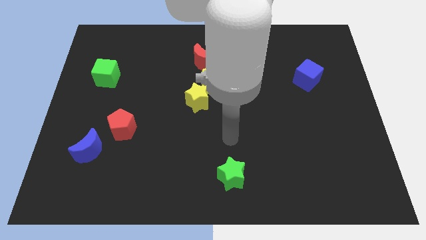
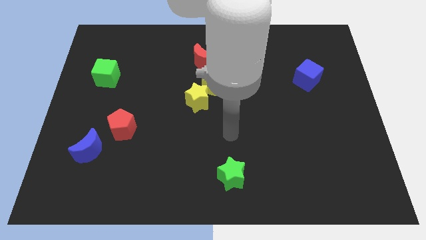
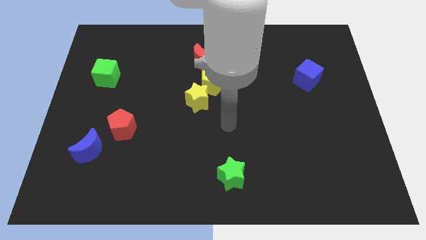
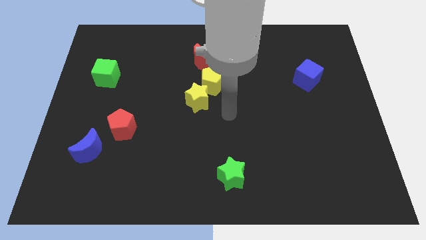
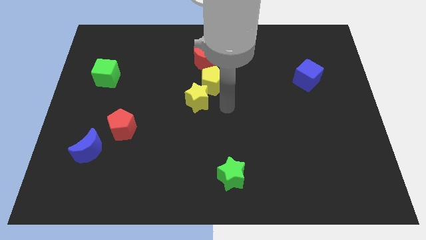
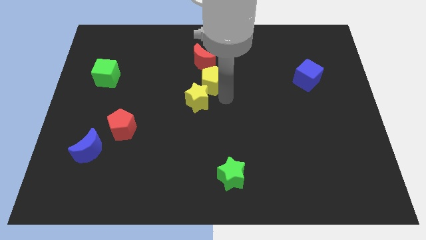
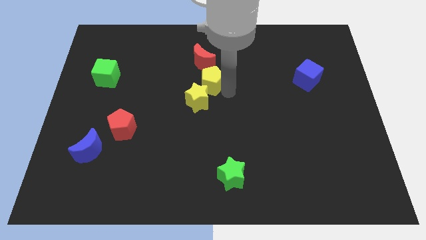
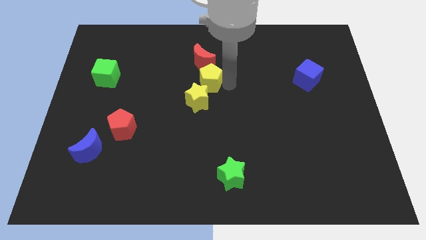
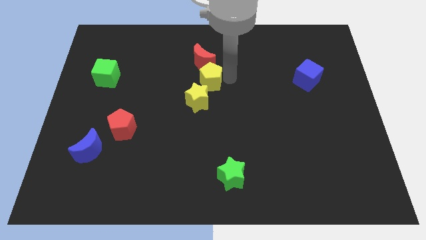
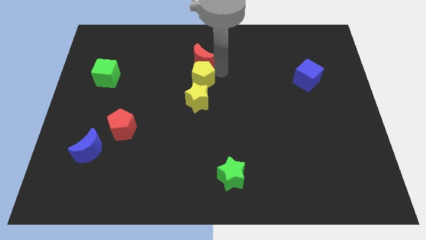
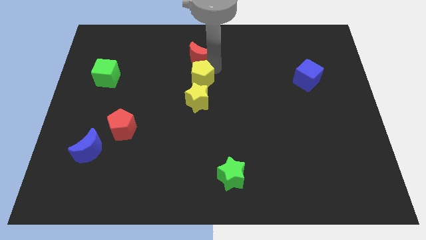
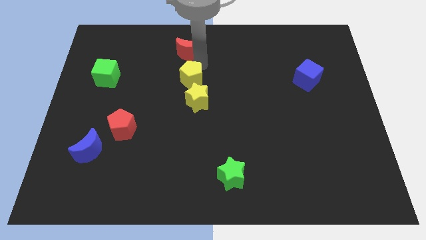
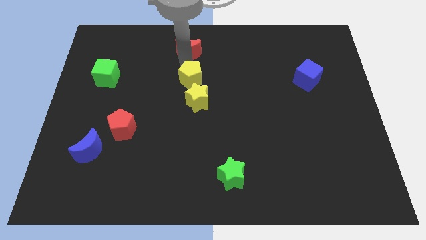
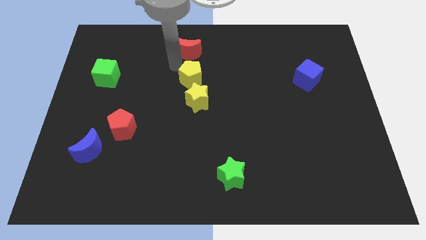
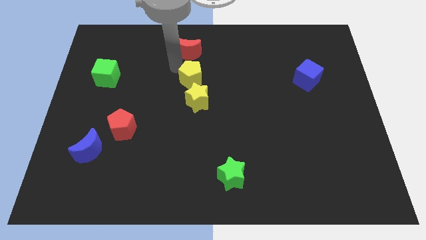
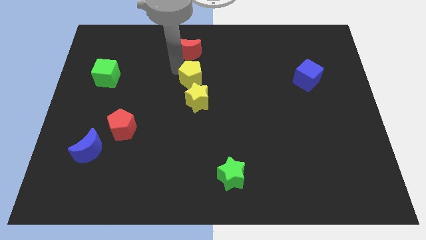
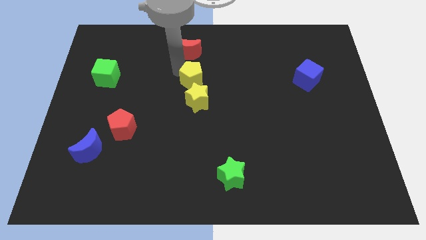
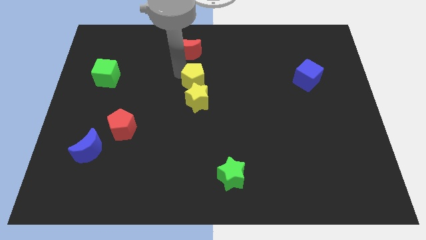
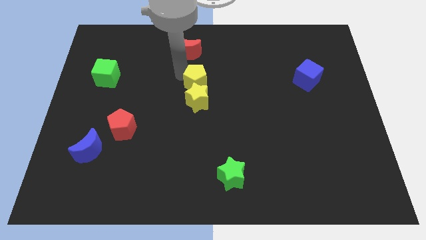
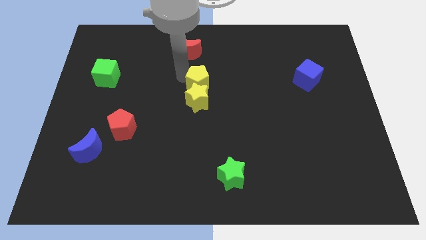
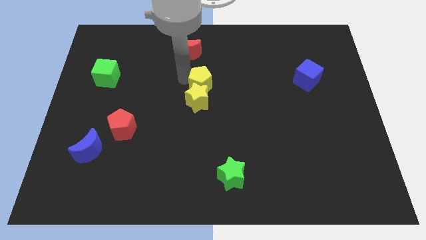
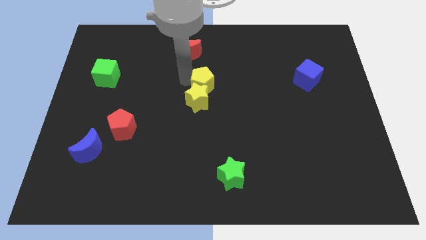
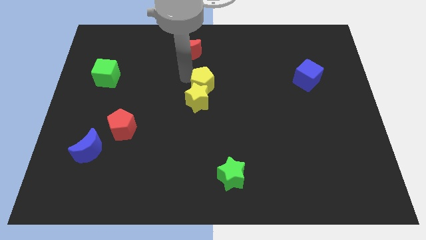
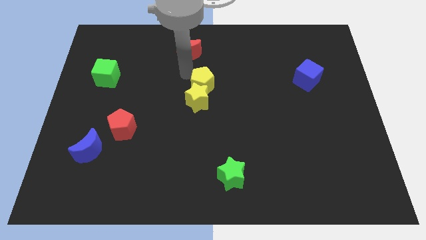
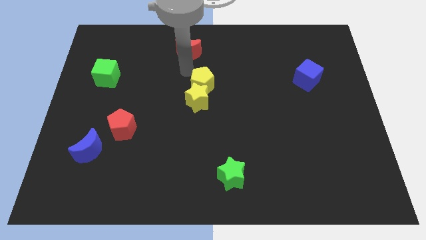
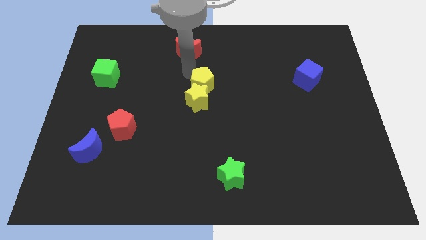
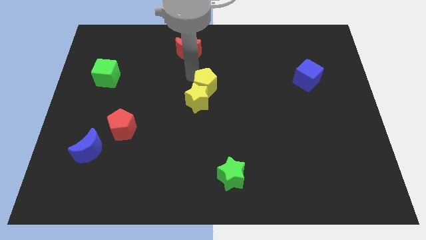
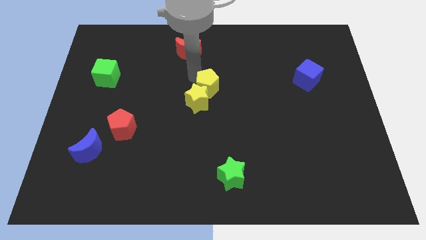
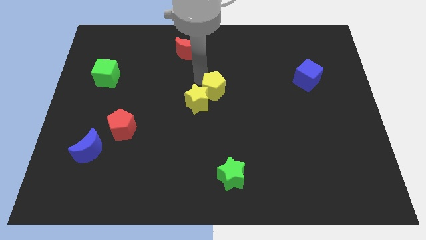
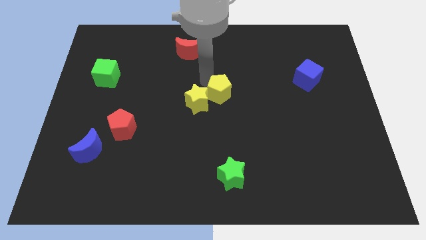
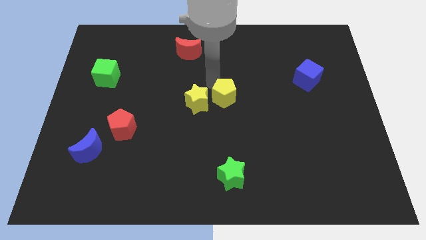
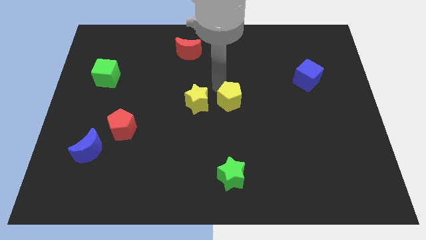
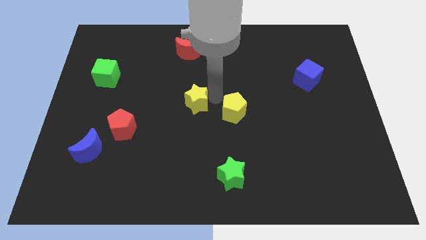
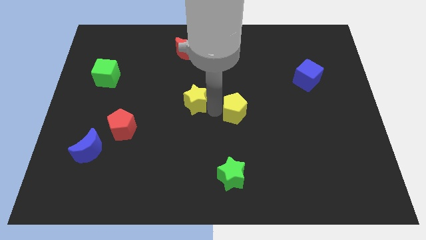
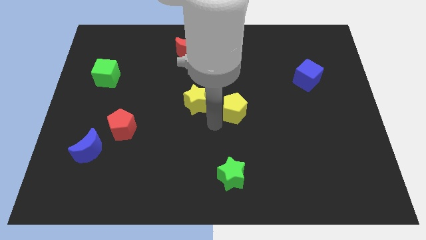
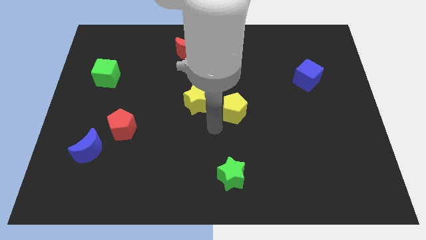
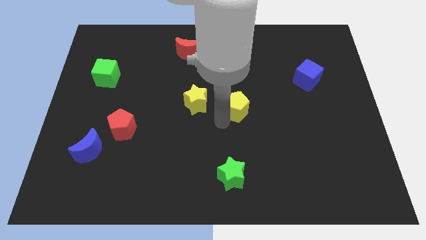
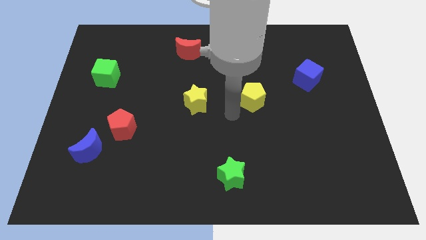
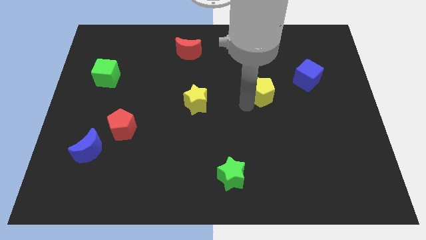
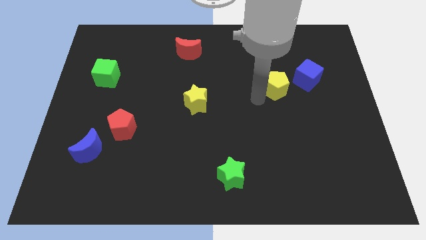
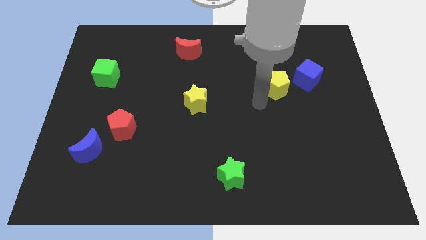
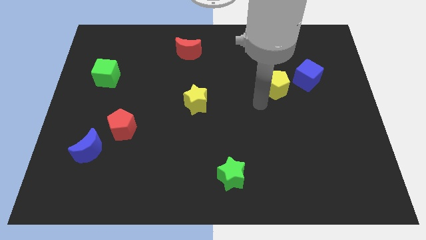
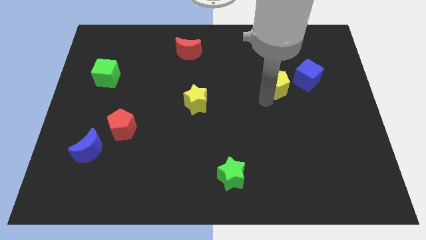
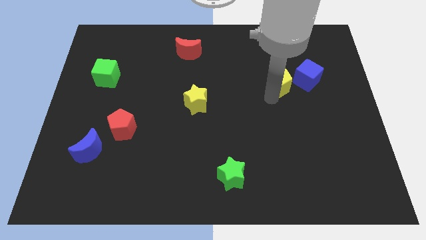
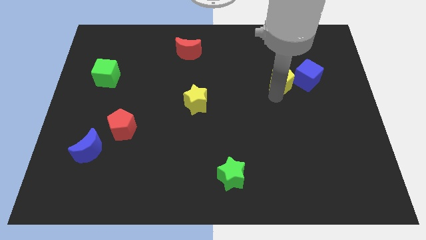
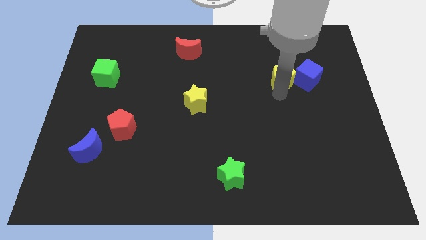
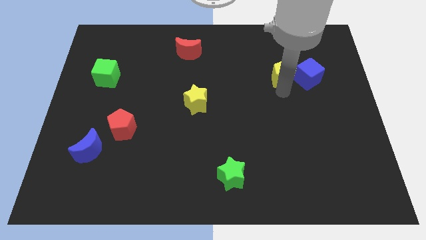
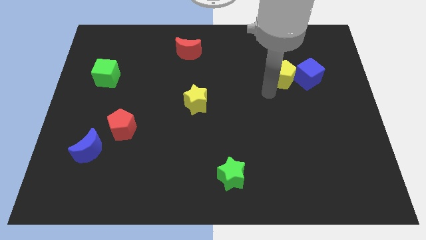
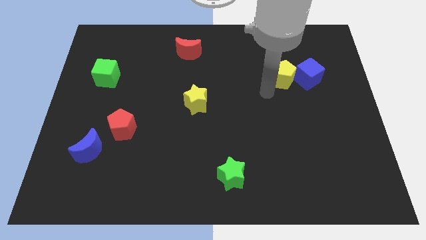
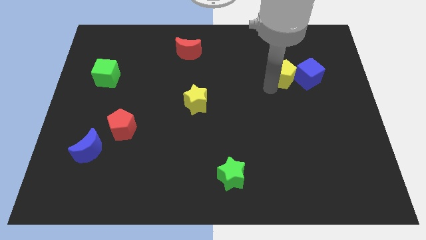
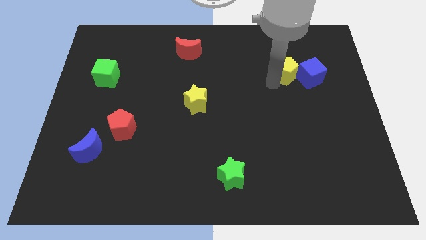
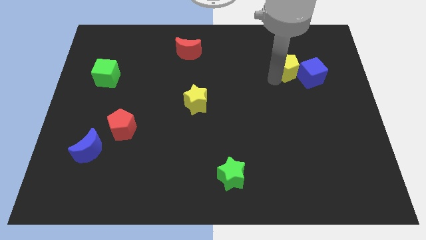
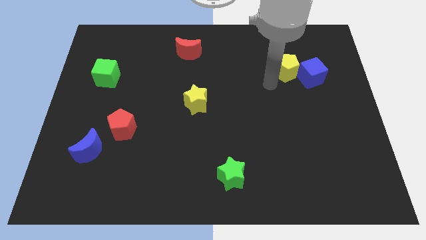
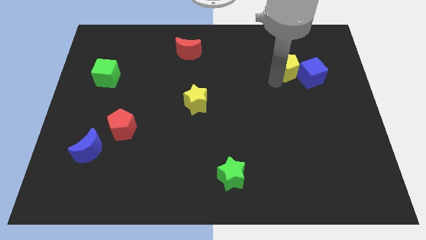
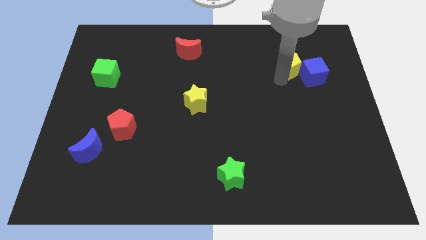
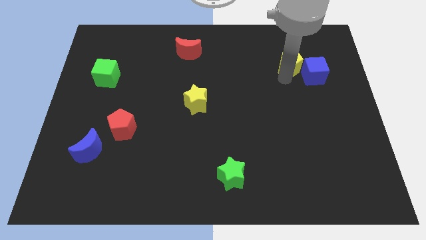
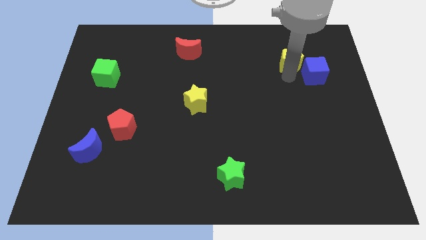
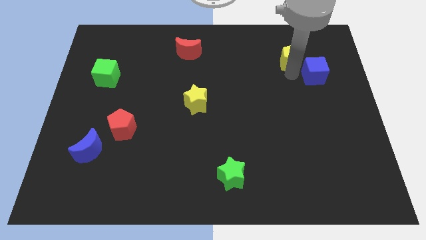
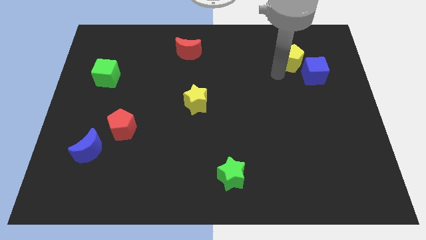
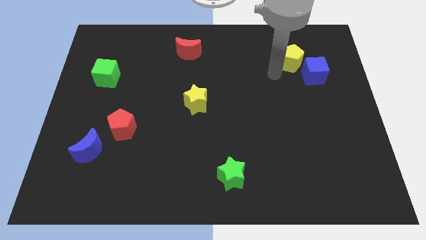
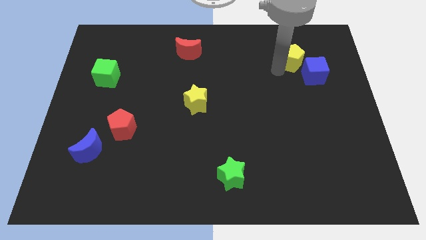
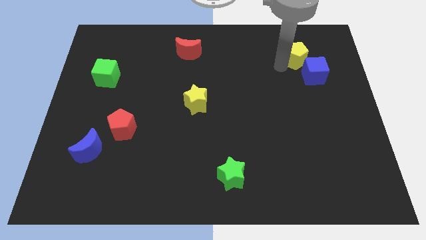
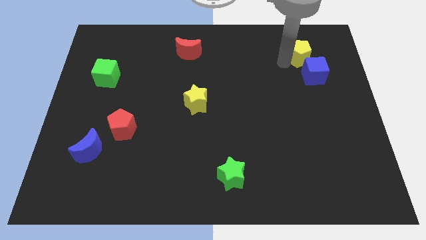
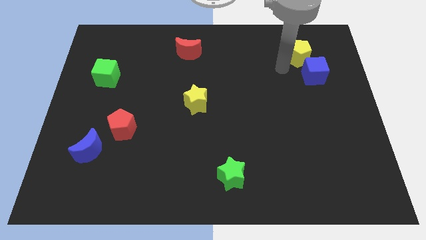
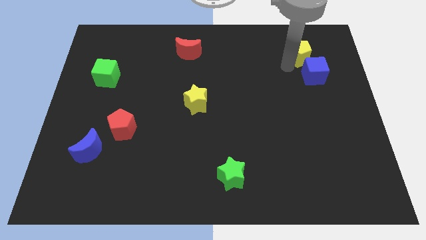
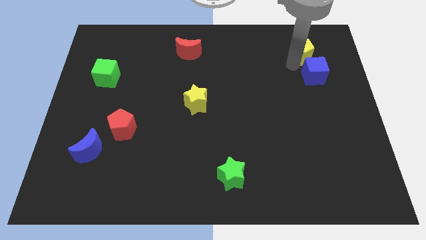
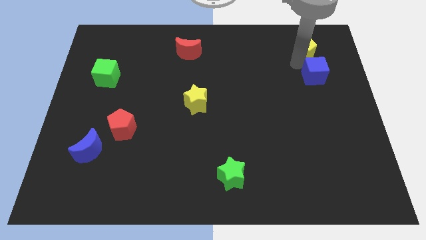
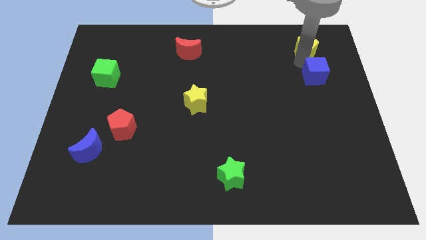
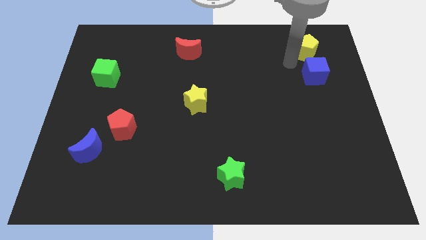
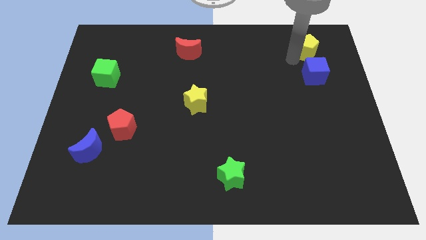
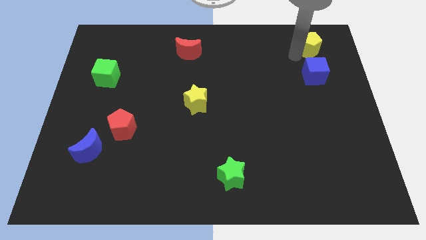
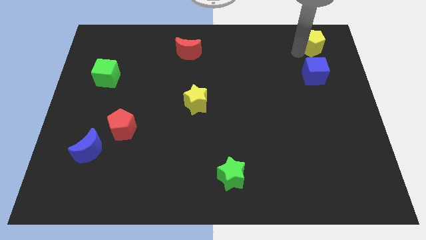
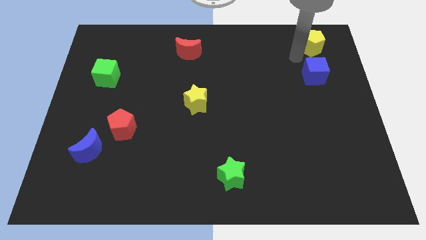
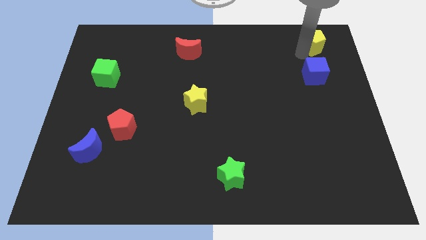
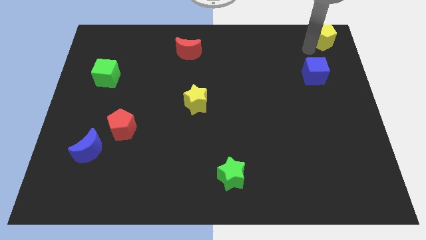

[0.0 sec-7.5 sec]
push the yellow pentagon to the top right corner
